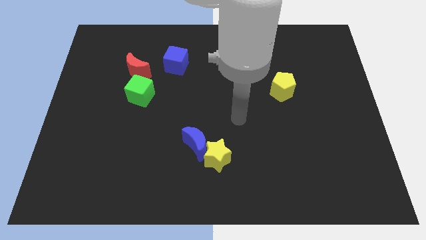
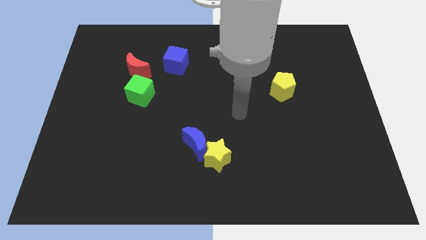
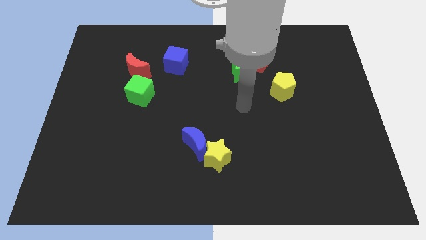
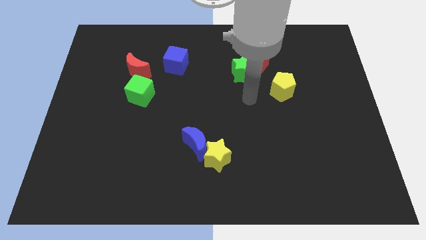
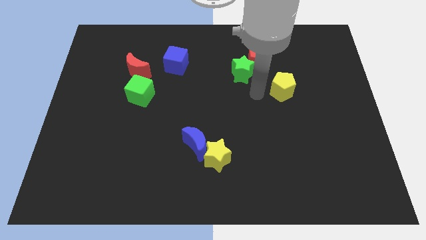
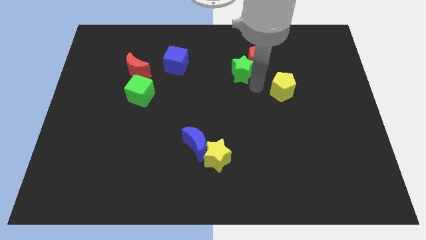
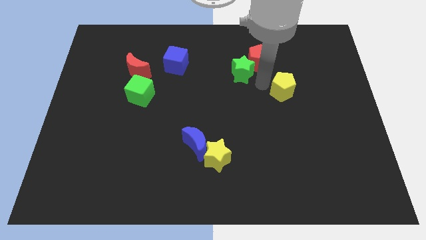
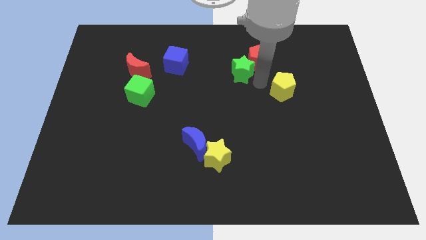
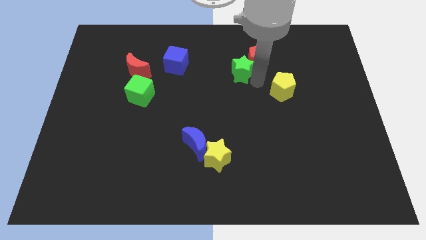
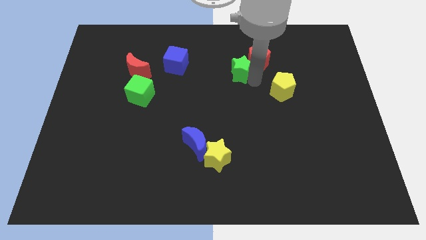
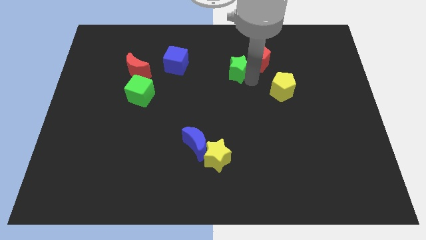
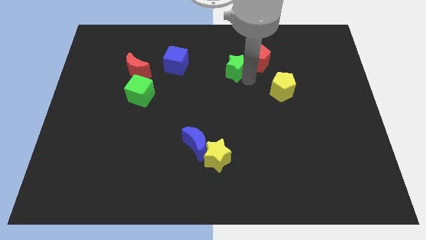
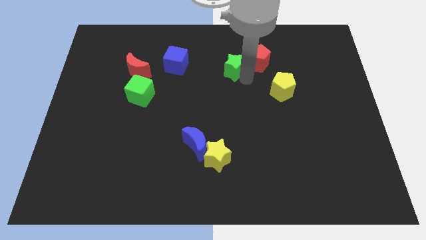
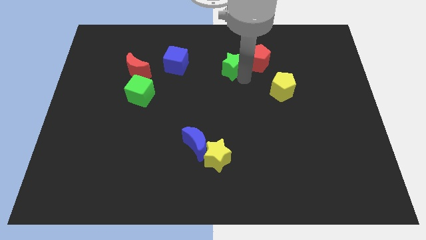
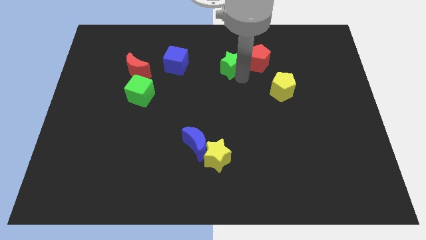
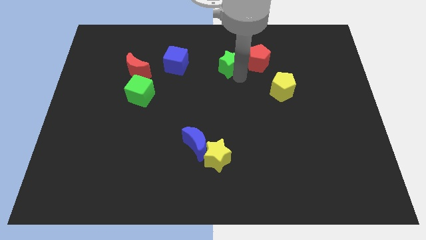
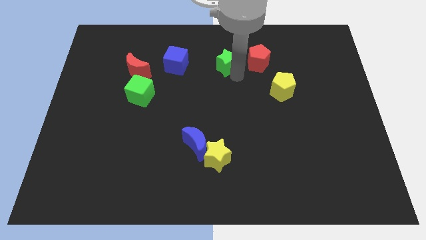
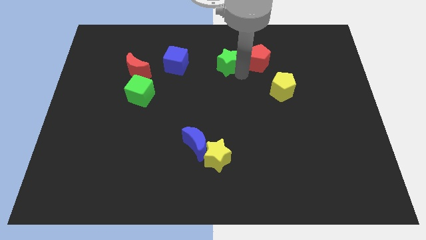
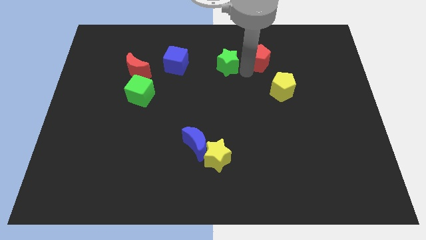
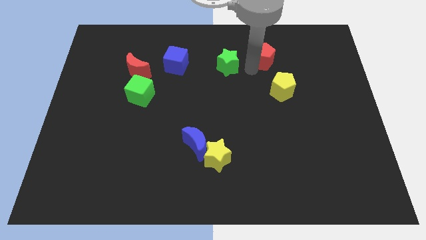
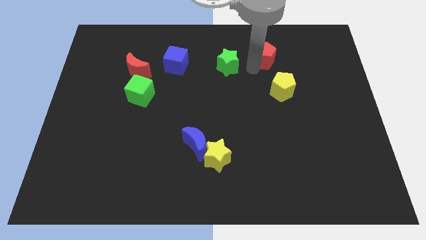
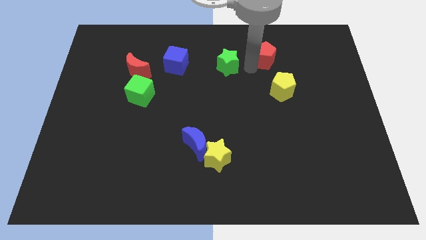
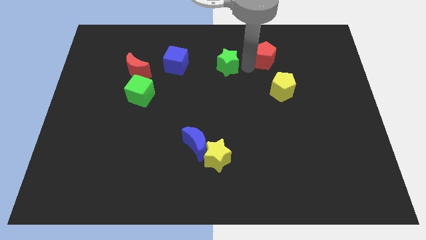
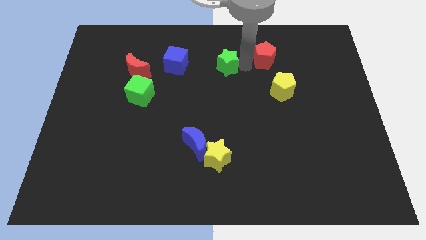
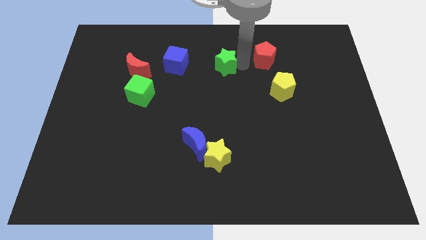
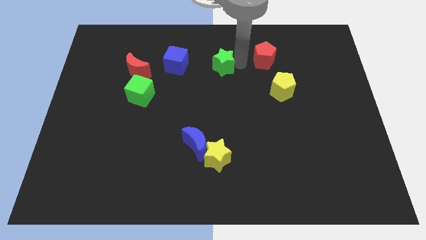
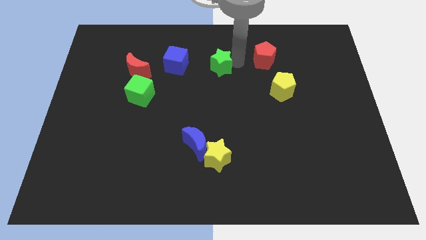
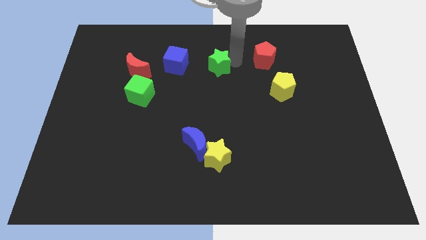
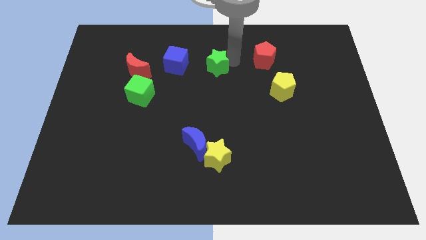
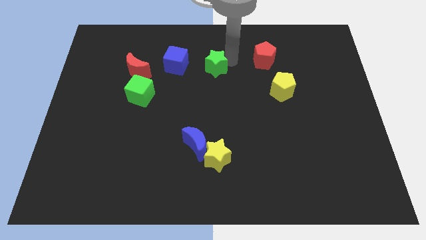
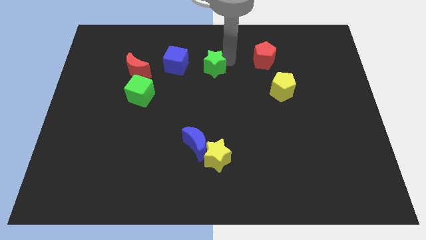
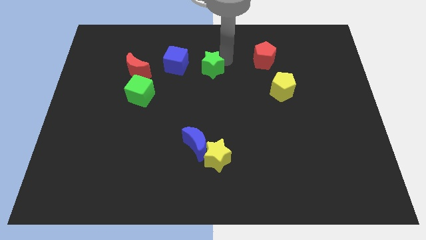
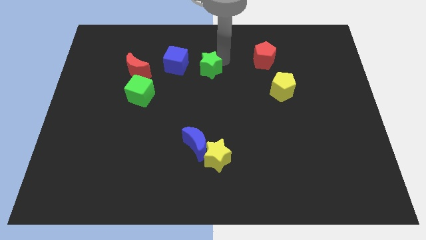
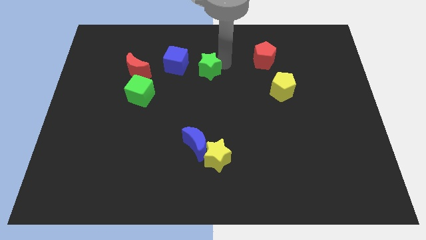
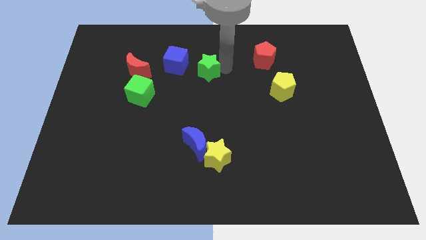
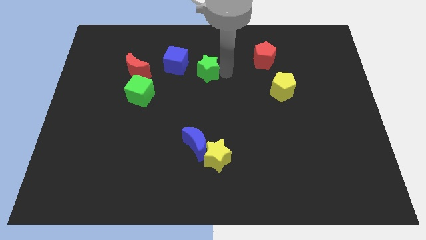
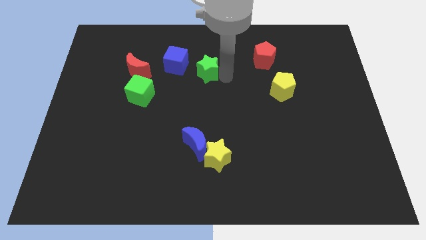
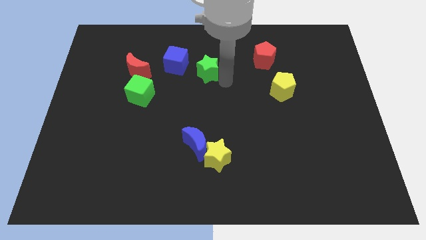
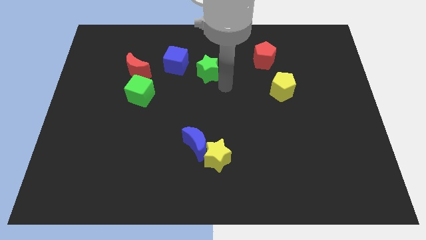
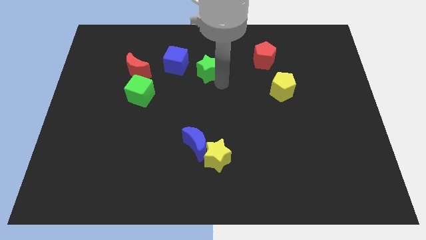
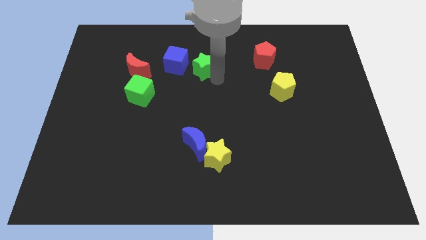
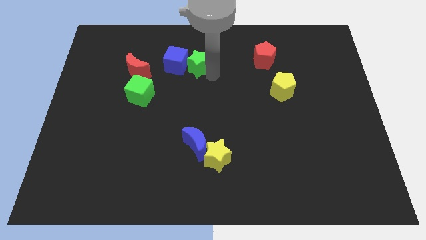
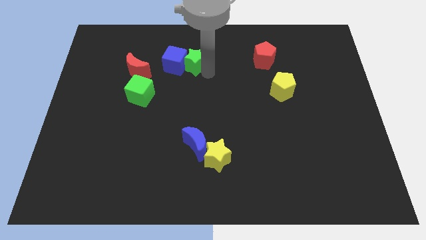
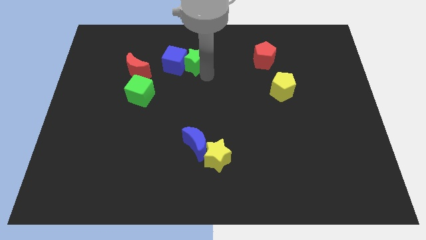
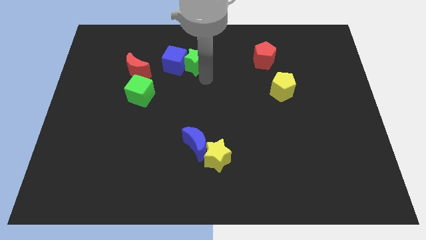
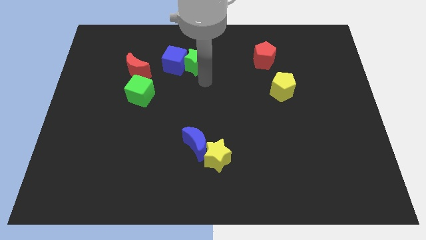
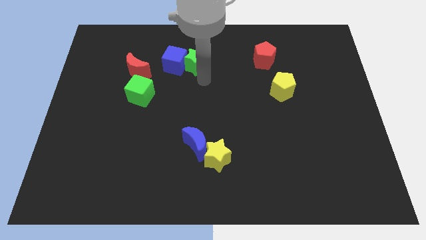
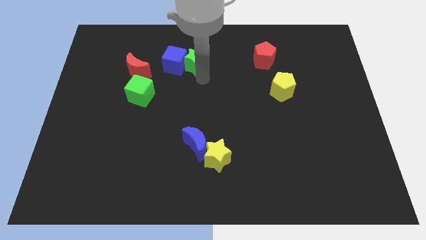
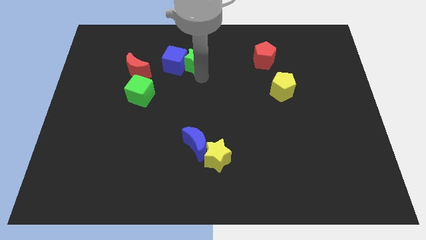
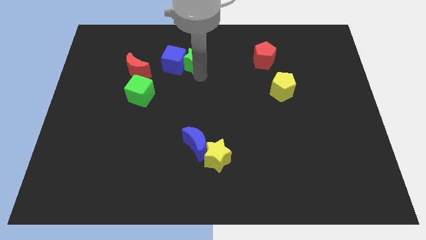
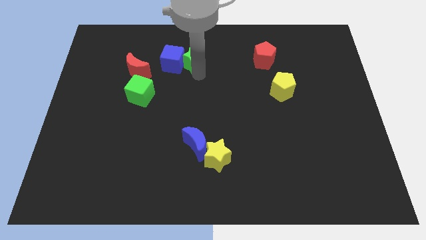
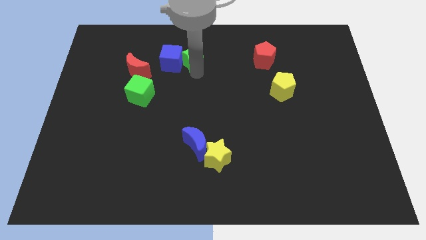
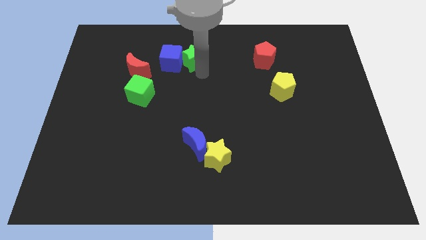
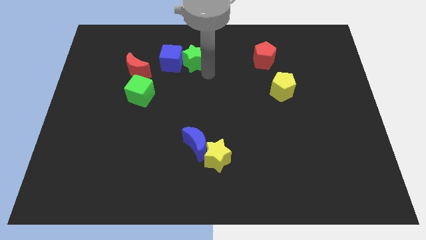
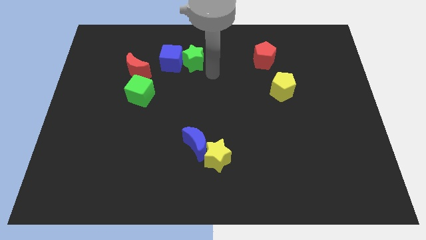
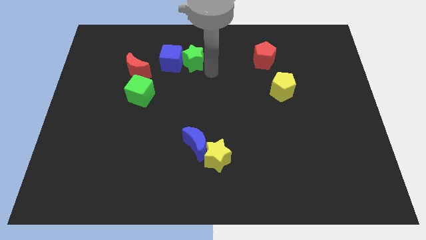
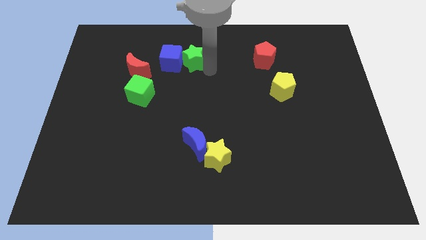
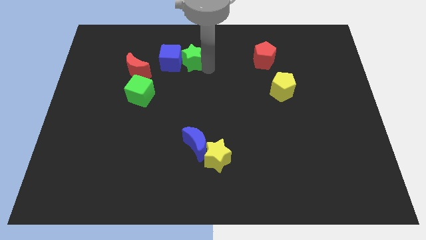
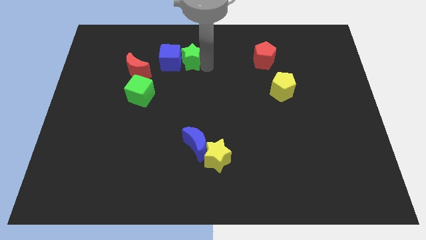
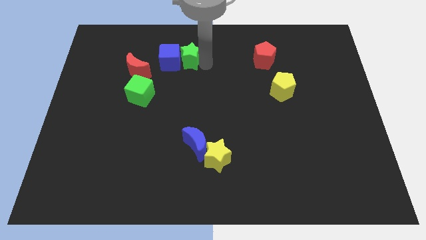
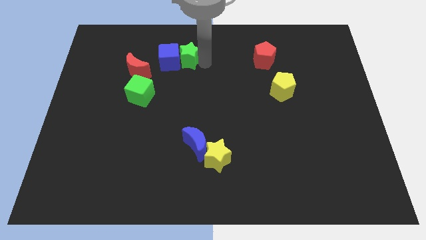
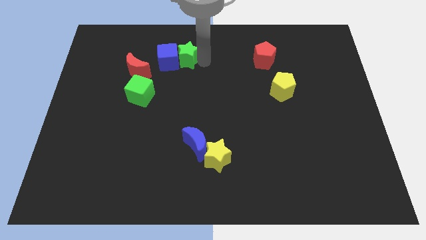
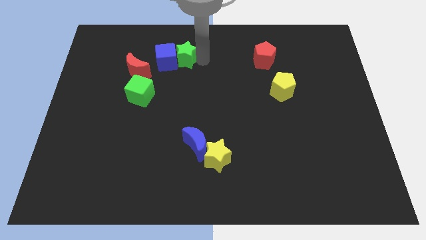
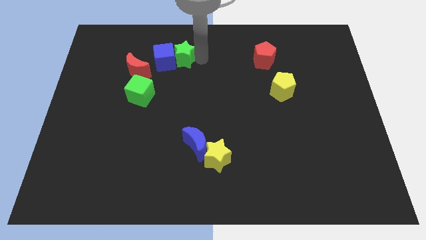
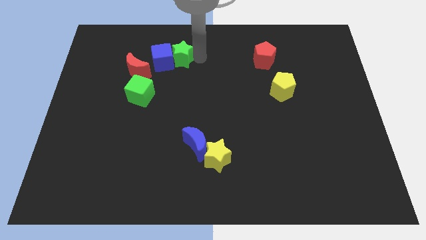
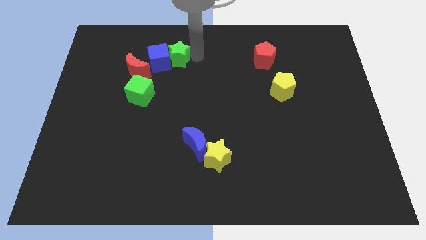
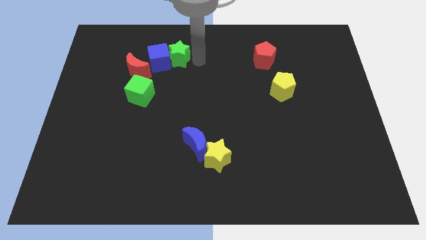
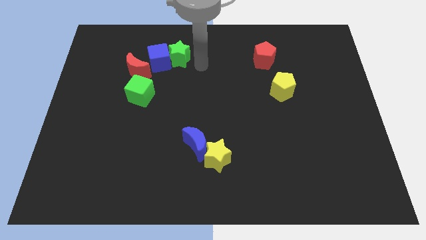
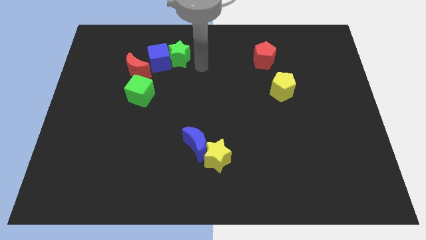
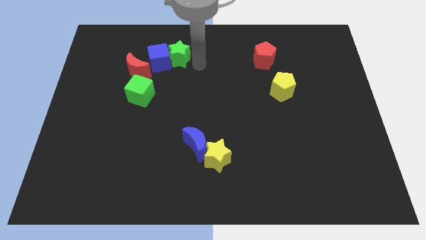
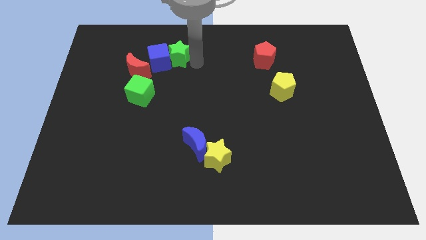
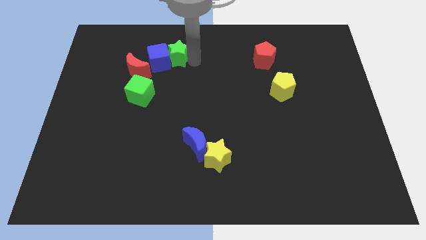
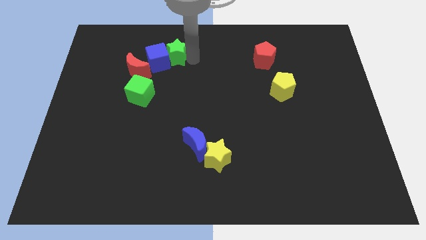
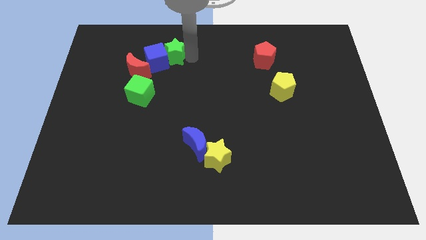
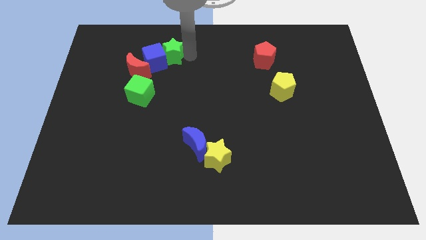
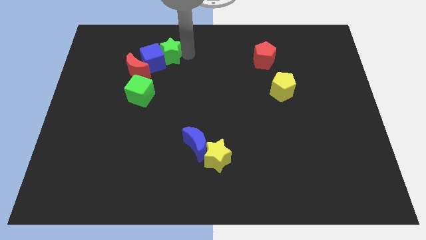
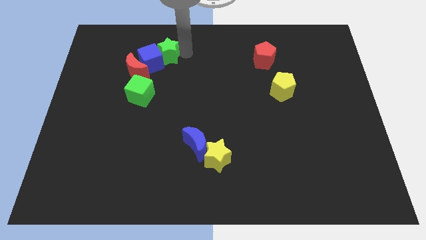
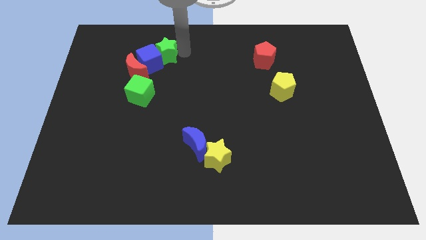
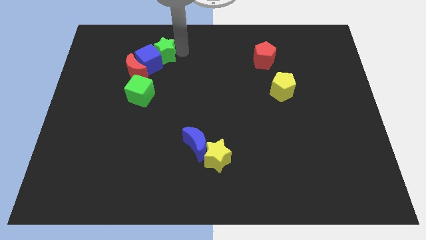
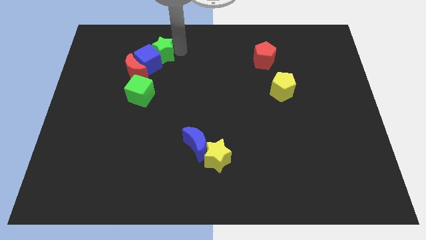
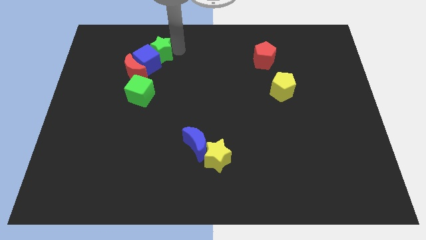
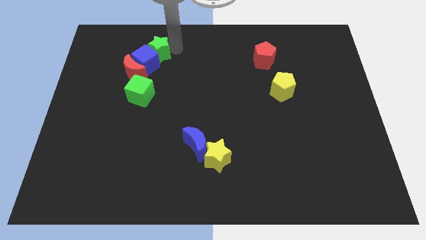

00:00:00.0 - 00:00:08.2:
move the green star to the top of the green cube
